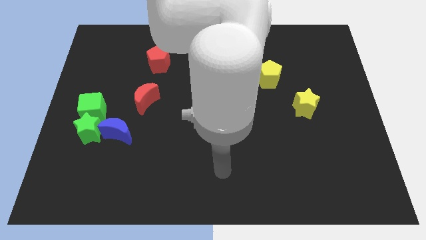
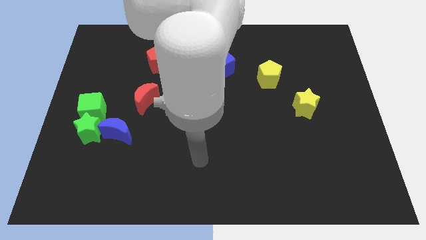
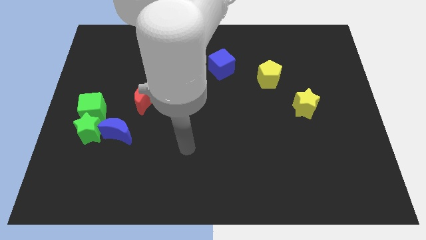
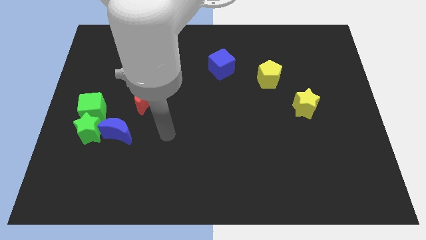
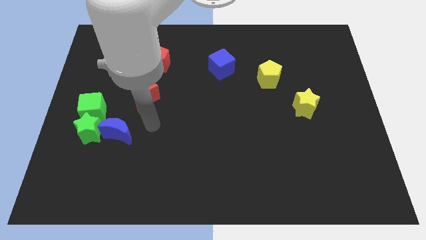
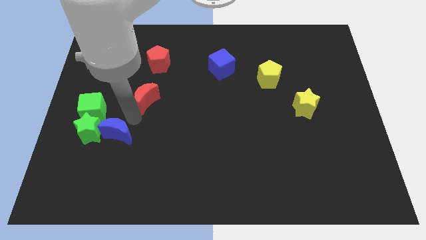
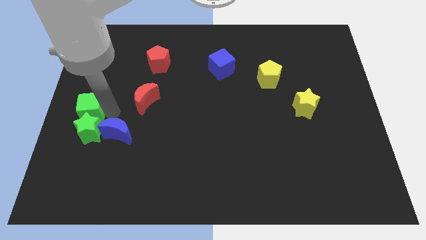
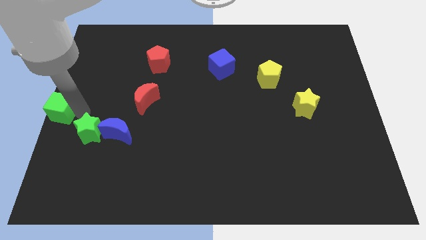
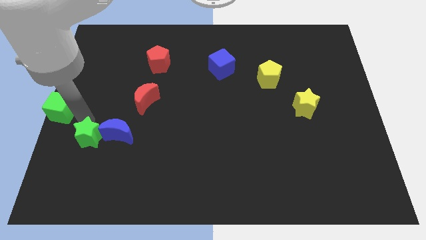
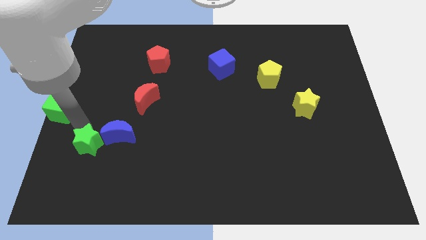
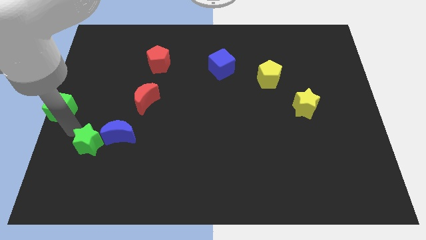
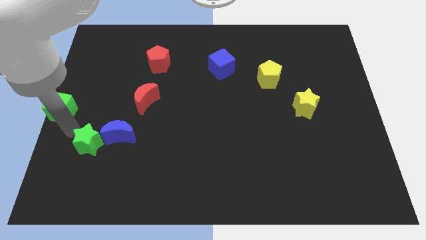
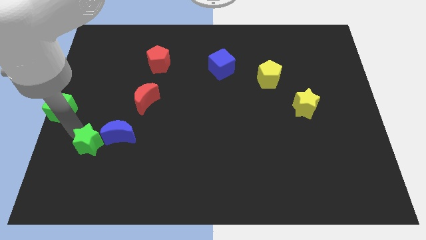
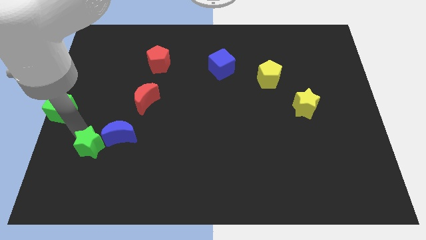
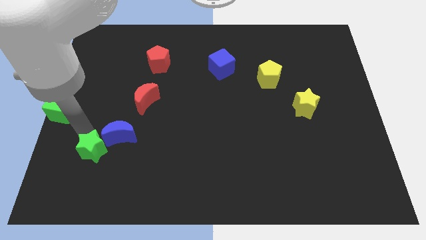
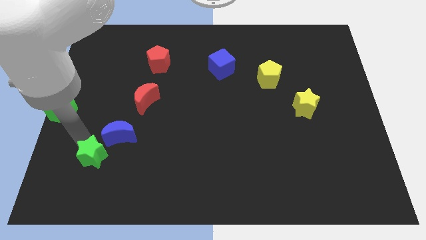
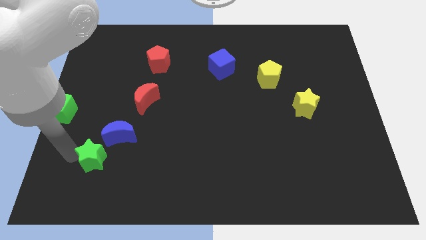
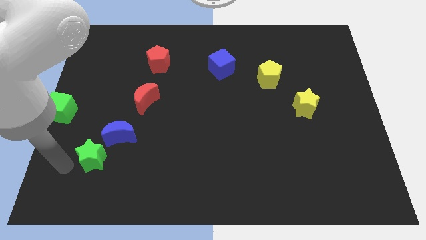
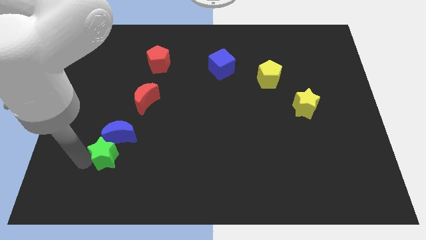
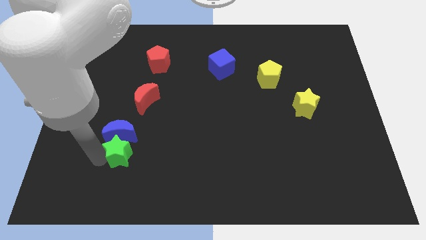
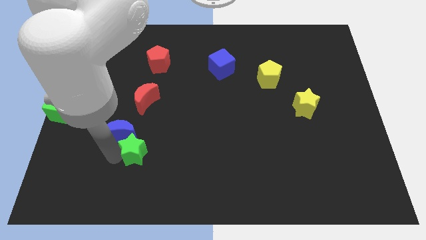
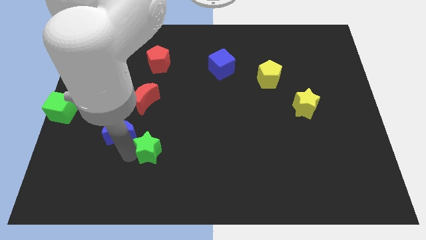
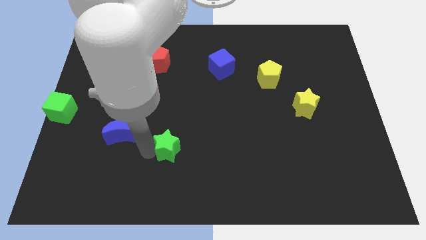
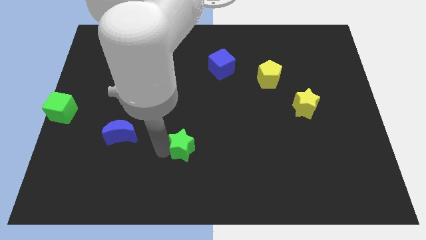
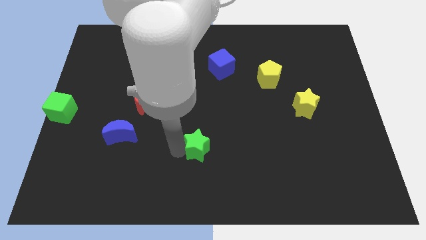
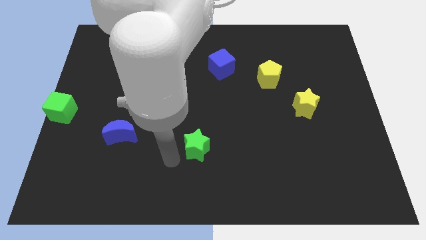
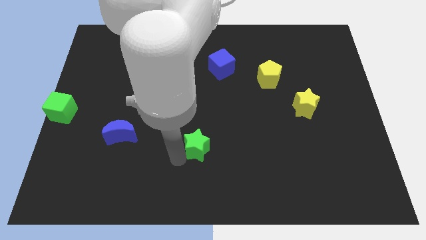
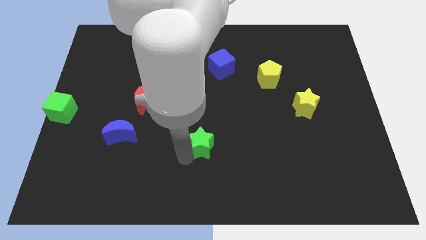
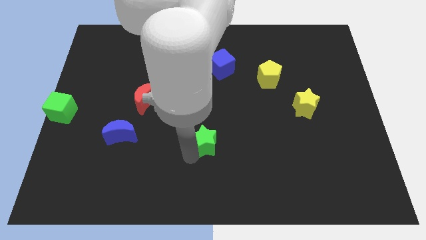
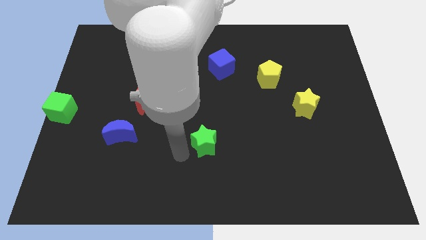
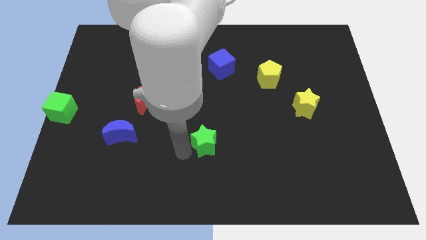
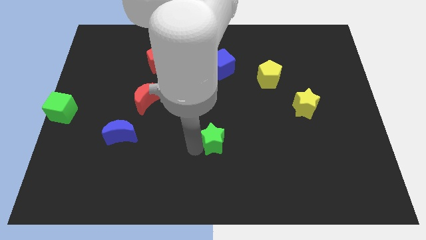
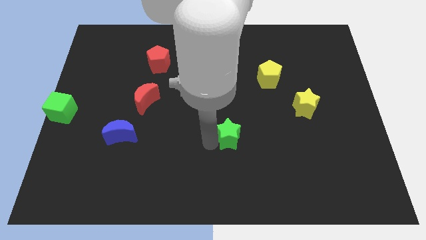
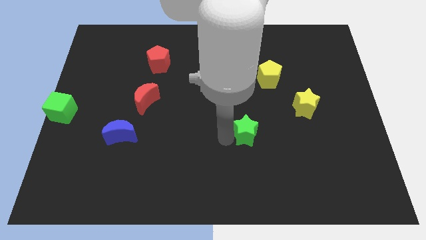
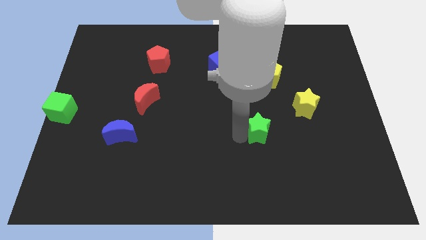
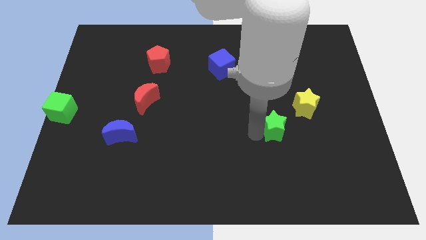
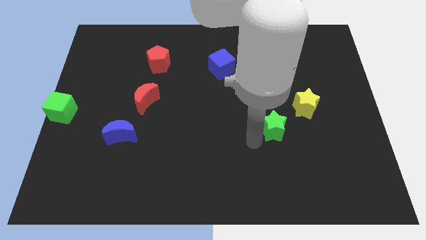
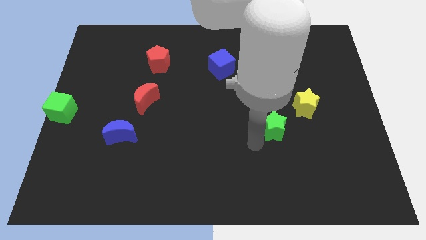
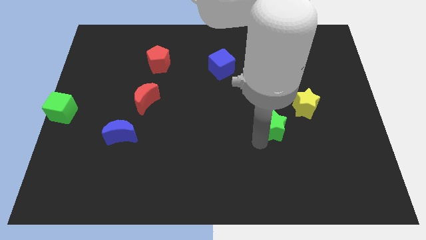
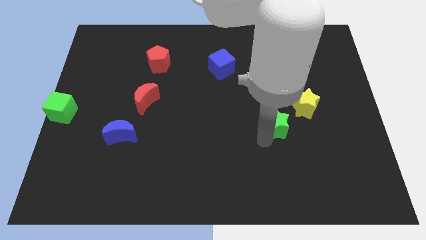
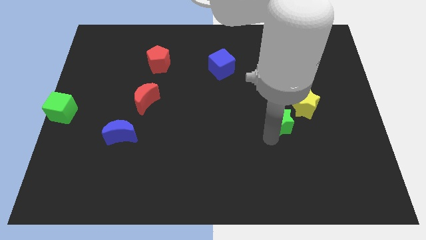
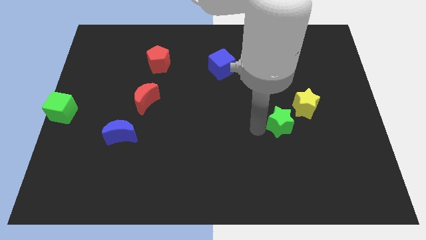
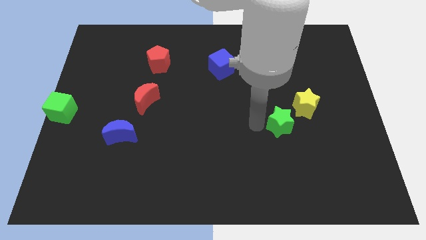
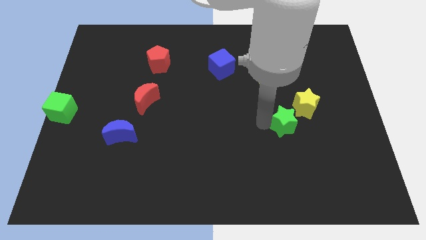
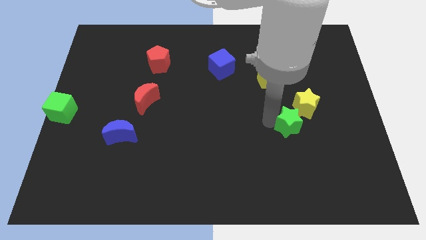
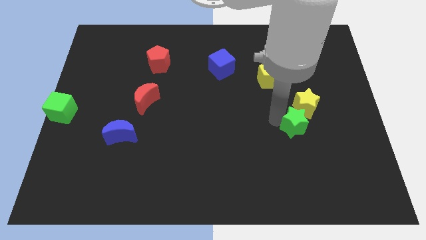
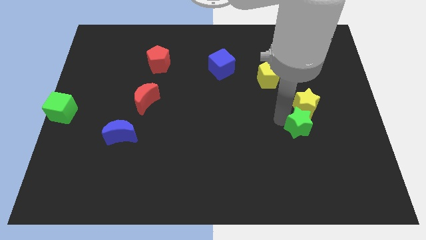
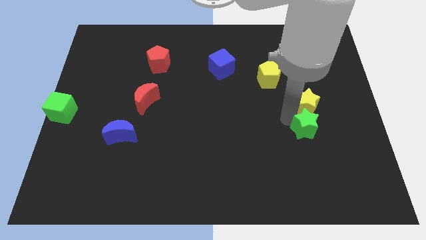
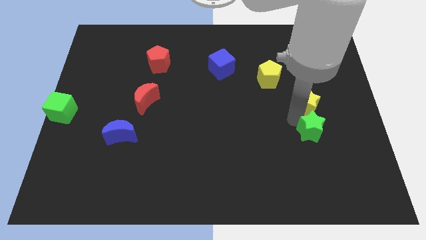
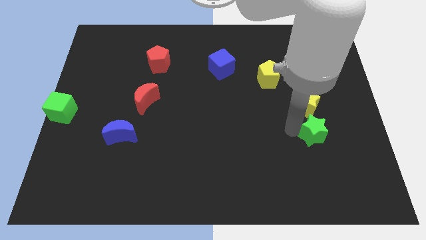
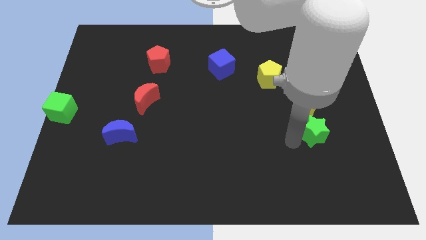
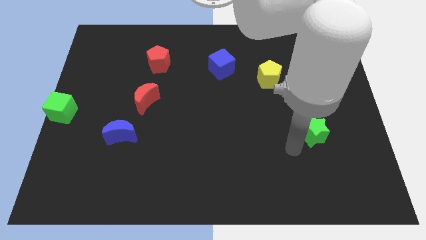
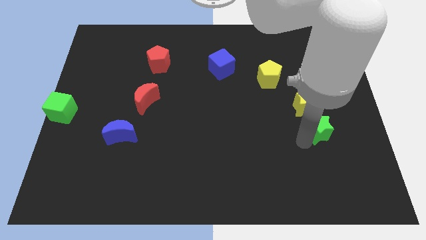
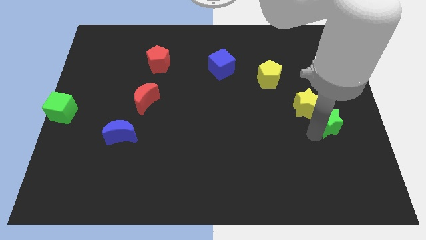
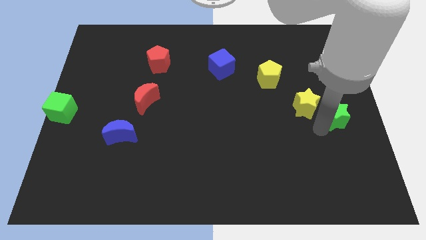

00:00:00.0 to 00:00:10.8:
push the green star to the right side of the board
